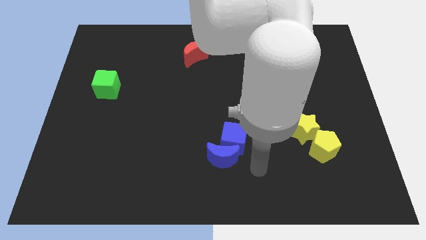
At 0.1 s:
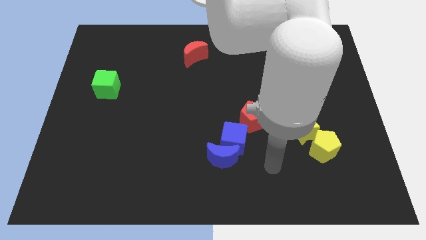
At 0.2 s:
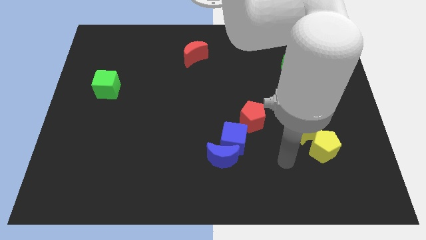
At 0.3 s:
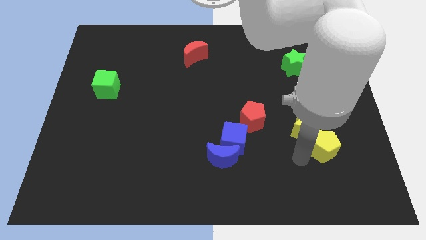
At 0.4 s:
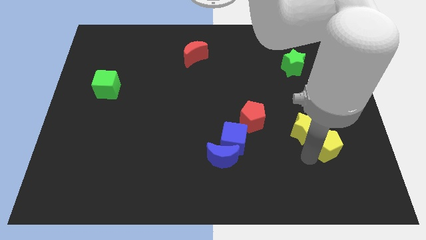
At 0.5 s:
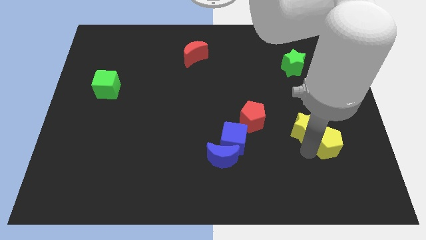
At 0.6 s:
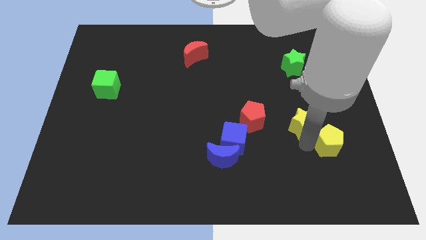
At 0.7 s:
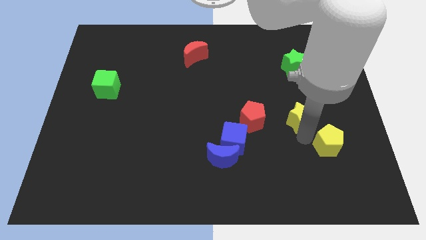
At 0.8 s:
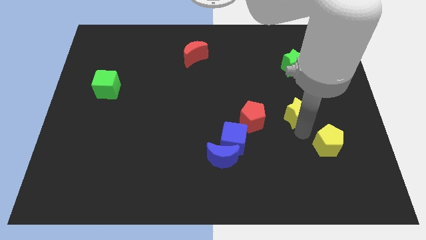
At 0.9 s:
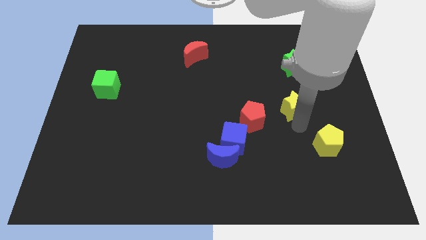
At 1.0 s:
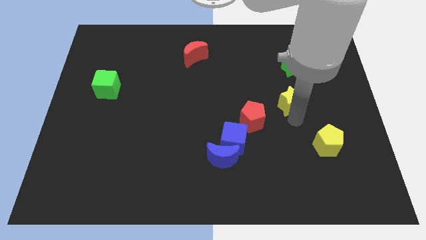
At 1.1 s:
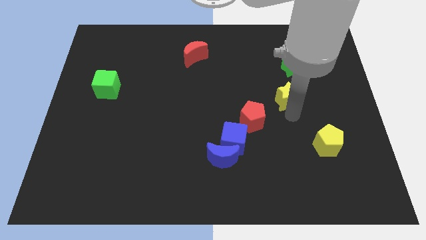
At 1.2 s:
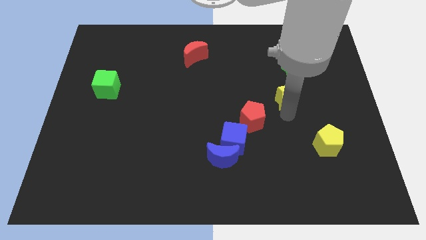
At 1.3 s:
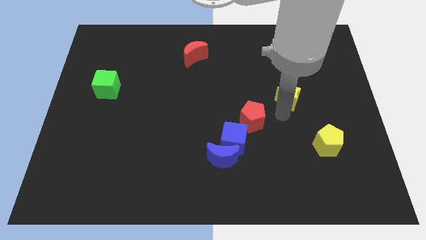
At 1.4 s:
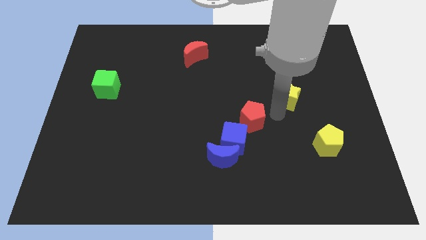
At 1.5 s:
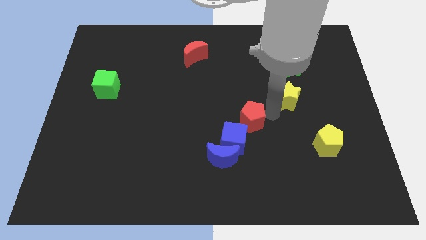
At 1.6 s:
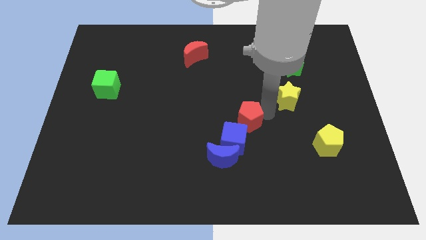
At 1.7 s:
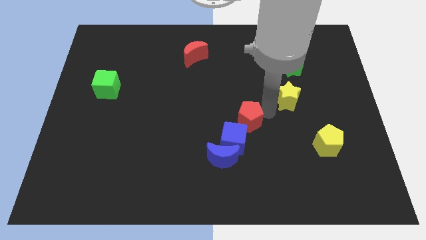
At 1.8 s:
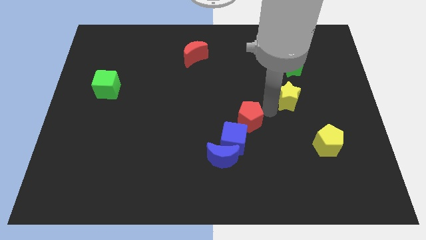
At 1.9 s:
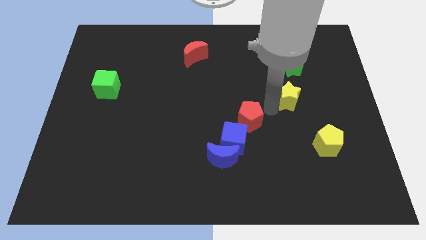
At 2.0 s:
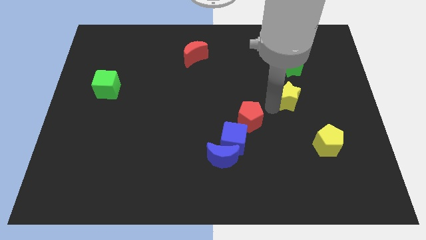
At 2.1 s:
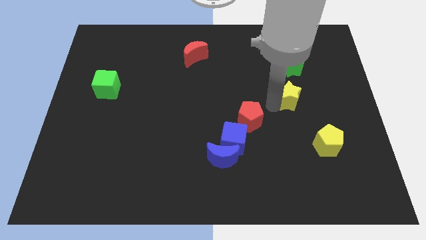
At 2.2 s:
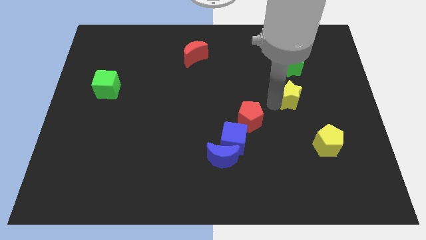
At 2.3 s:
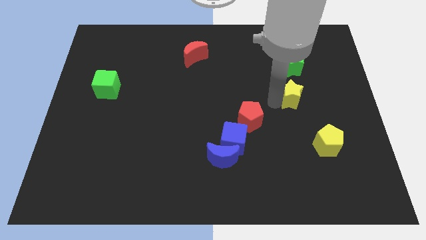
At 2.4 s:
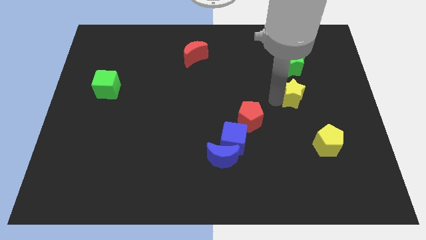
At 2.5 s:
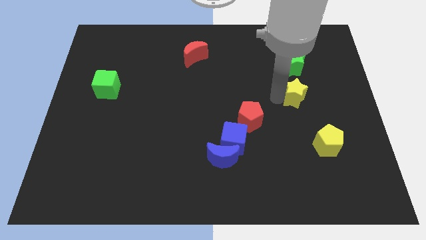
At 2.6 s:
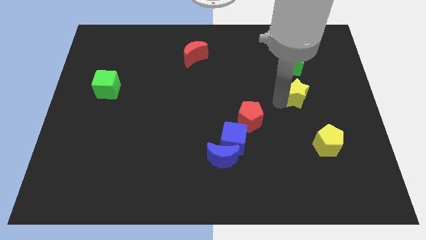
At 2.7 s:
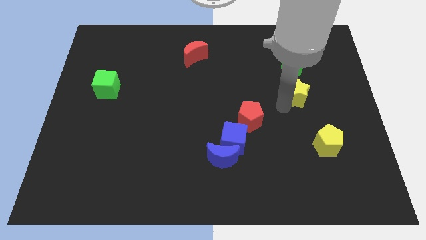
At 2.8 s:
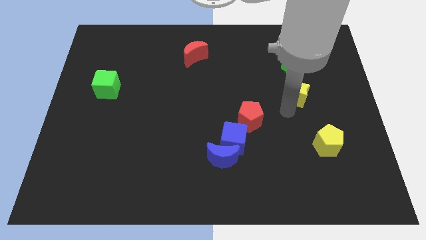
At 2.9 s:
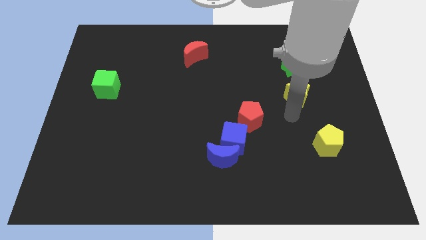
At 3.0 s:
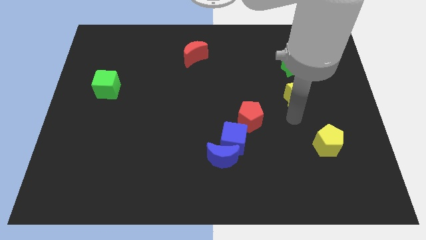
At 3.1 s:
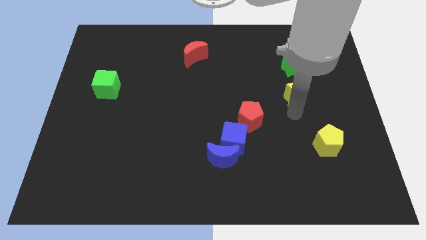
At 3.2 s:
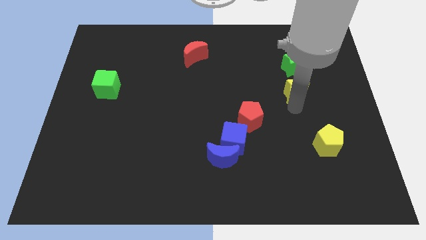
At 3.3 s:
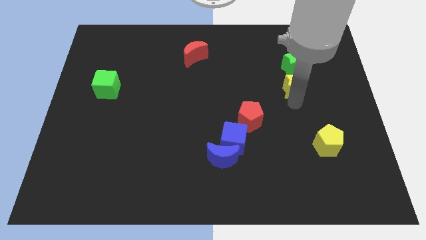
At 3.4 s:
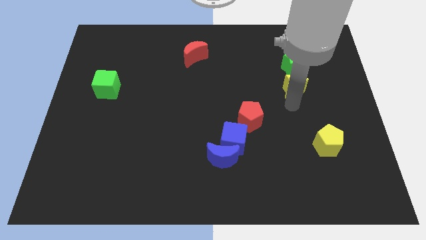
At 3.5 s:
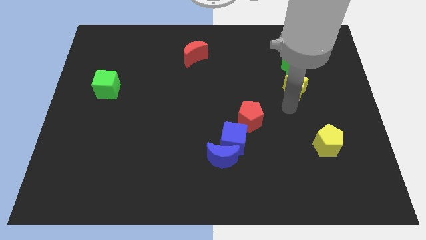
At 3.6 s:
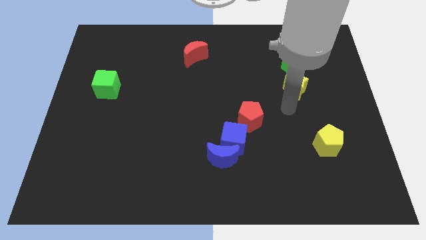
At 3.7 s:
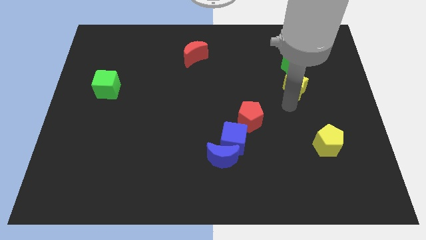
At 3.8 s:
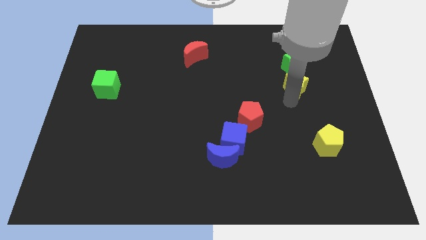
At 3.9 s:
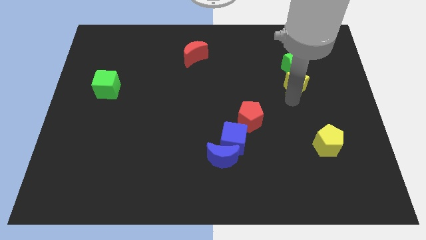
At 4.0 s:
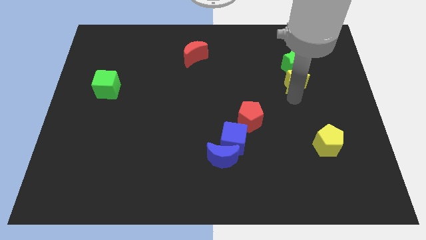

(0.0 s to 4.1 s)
move the yellow star close to the green star

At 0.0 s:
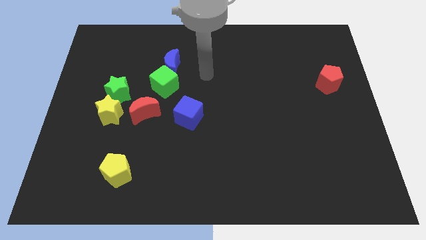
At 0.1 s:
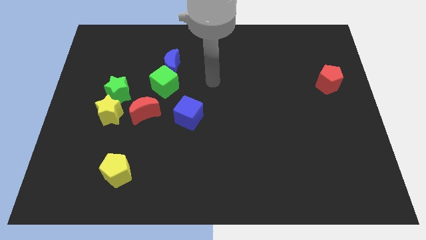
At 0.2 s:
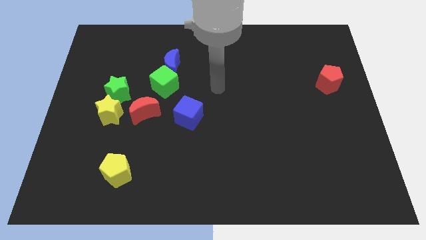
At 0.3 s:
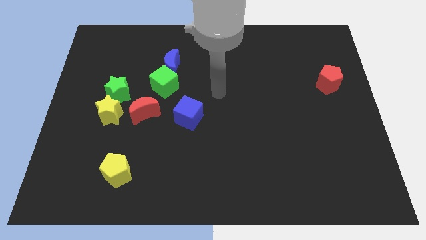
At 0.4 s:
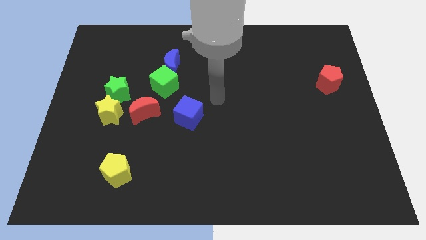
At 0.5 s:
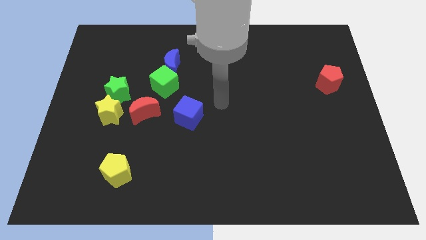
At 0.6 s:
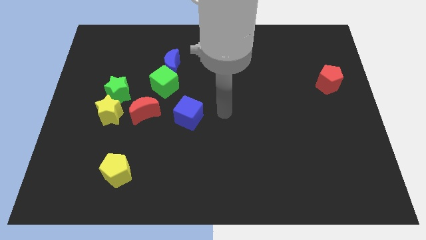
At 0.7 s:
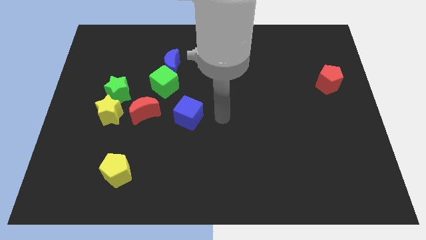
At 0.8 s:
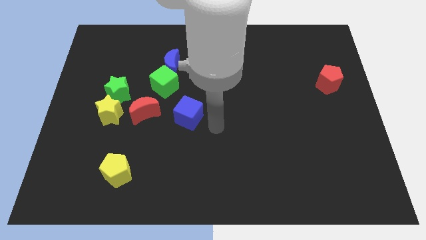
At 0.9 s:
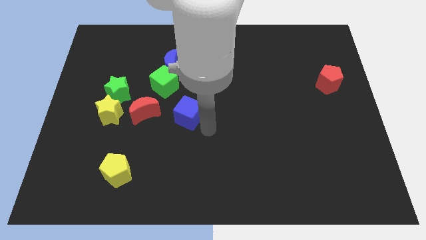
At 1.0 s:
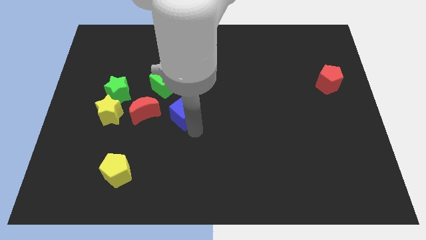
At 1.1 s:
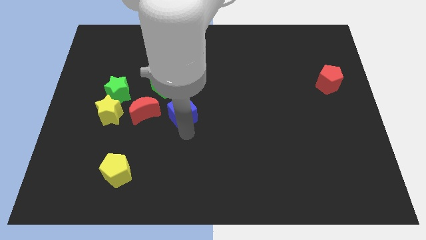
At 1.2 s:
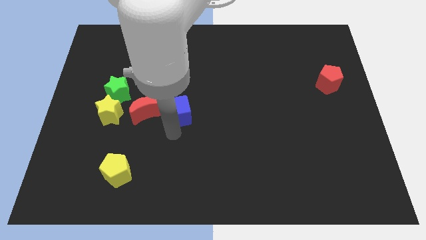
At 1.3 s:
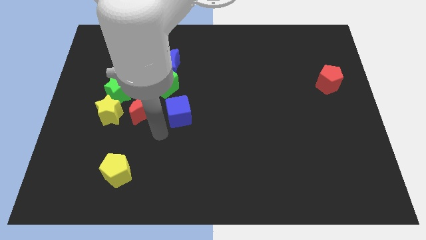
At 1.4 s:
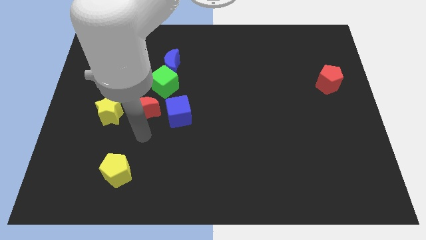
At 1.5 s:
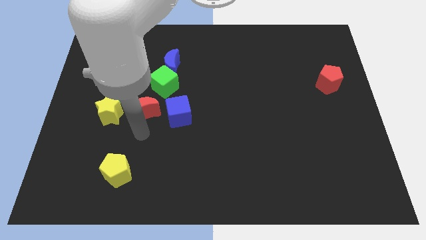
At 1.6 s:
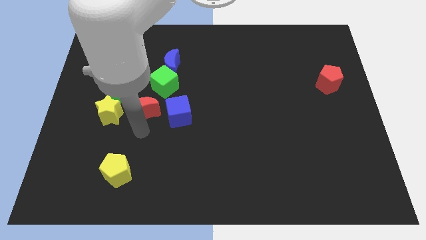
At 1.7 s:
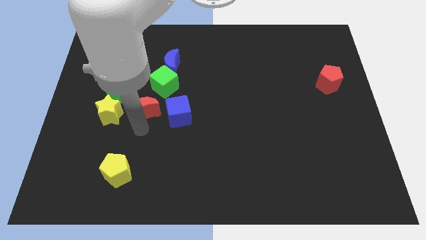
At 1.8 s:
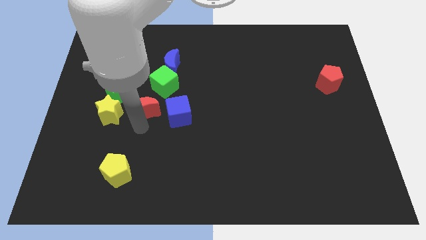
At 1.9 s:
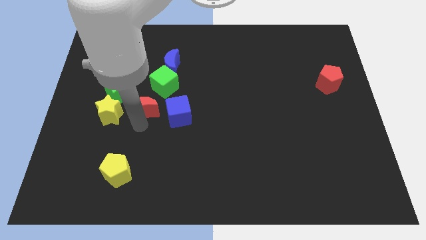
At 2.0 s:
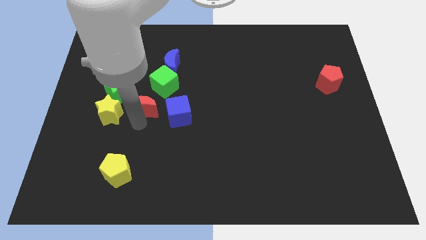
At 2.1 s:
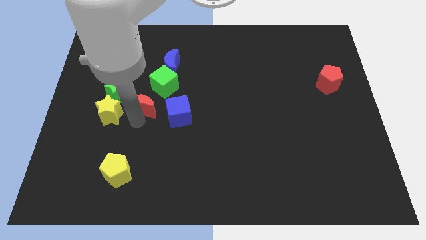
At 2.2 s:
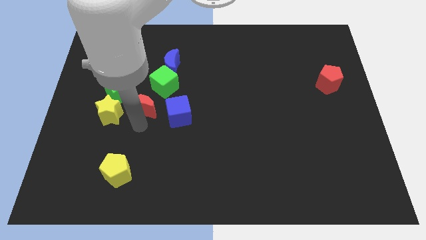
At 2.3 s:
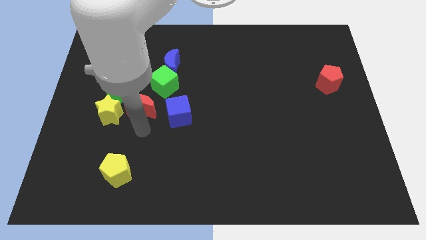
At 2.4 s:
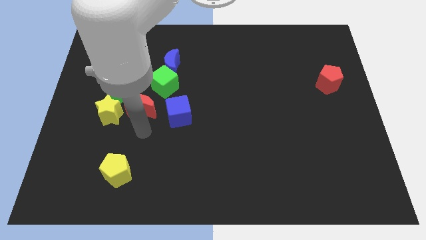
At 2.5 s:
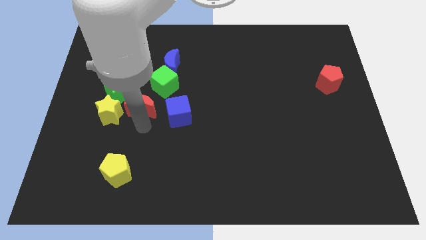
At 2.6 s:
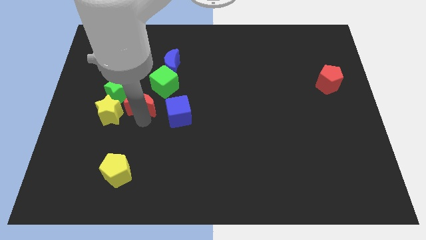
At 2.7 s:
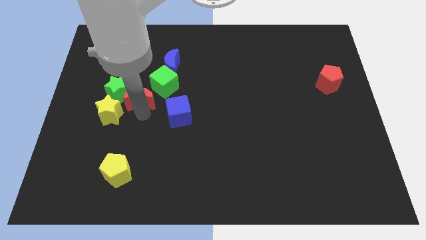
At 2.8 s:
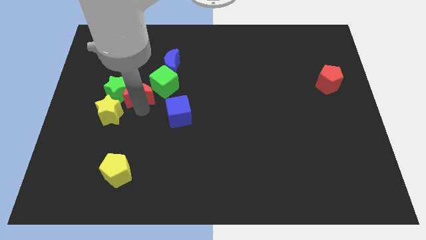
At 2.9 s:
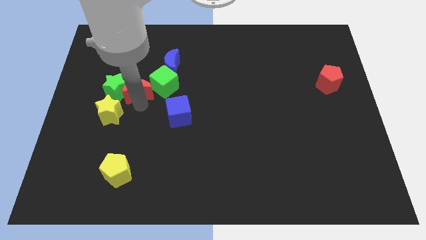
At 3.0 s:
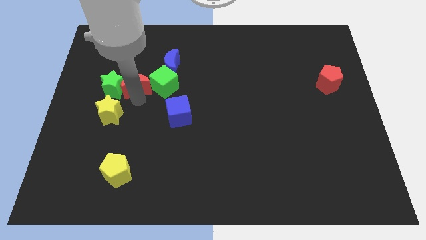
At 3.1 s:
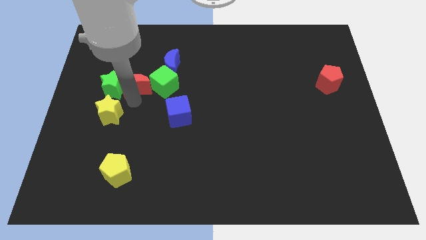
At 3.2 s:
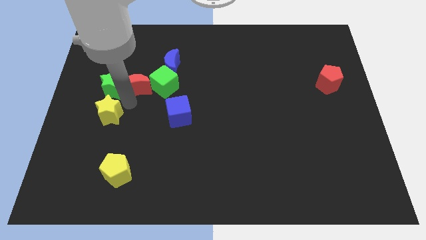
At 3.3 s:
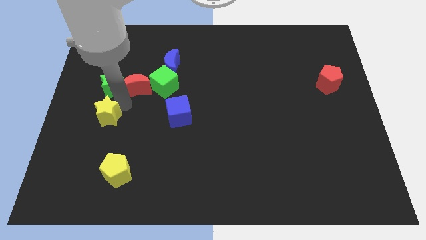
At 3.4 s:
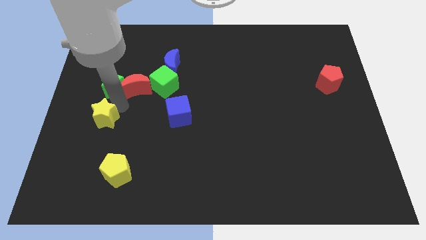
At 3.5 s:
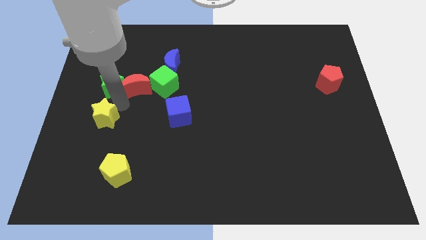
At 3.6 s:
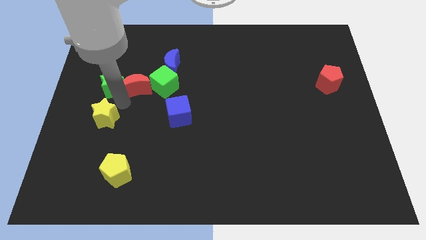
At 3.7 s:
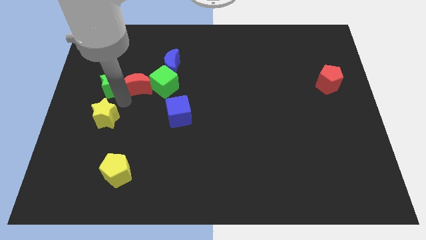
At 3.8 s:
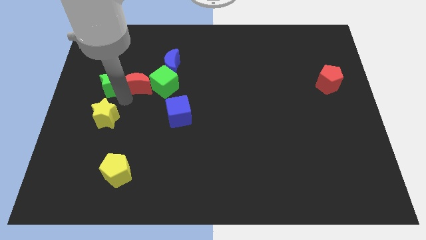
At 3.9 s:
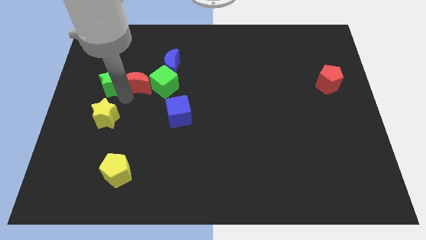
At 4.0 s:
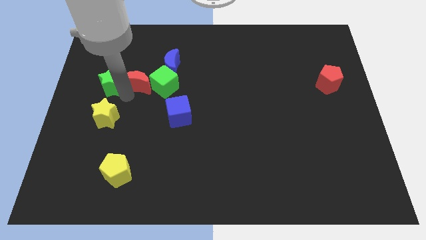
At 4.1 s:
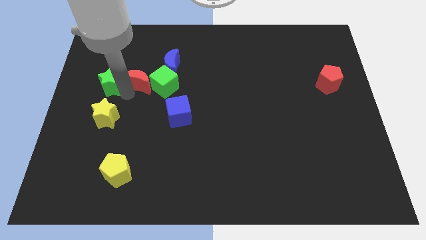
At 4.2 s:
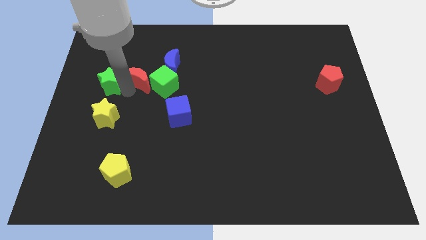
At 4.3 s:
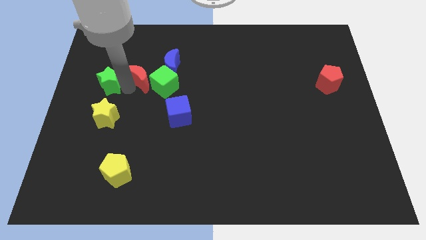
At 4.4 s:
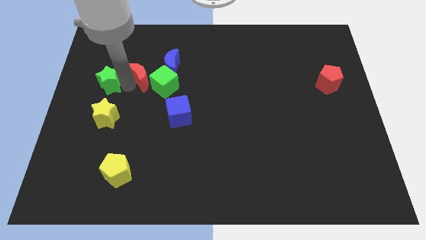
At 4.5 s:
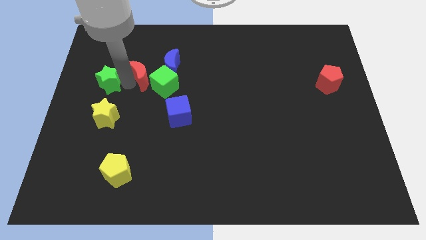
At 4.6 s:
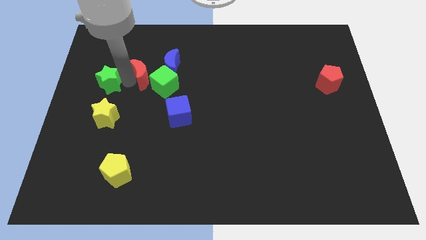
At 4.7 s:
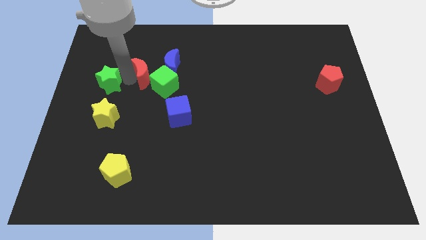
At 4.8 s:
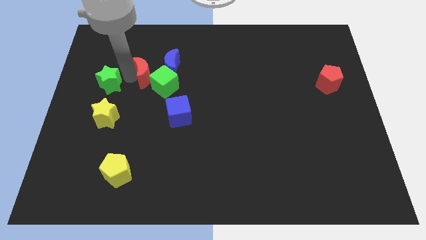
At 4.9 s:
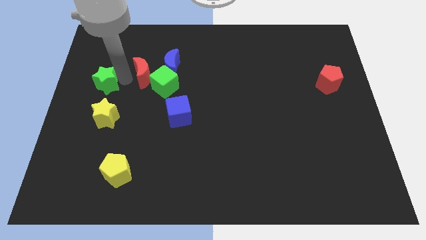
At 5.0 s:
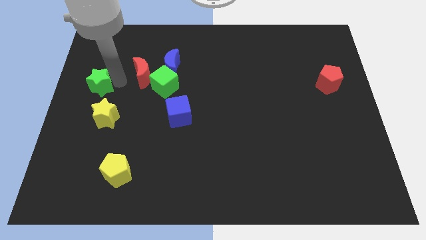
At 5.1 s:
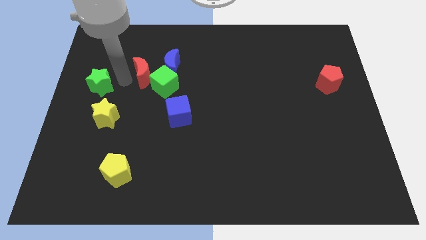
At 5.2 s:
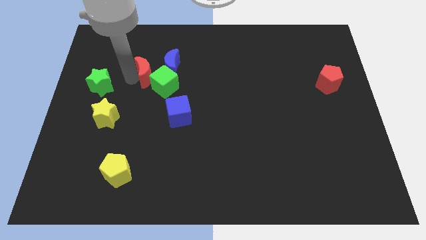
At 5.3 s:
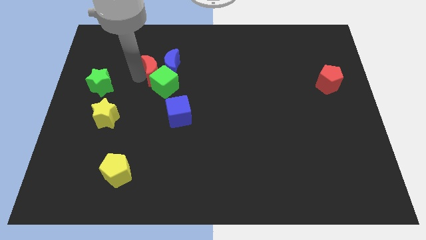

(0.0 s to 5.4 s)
push the red moon towards the blue moon
